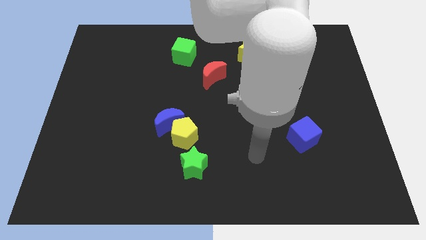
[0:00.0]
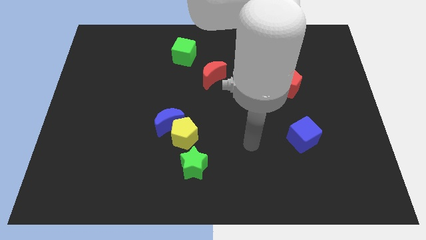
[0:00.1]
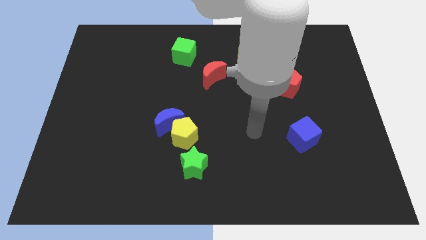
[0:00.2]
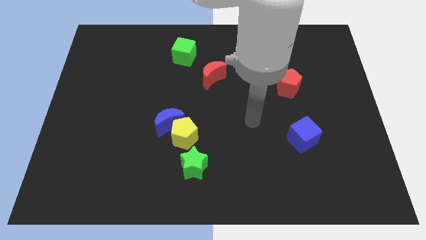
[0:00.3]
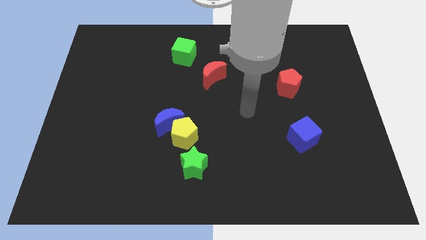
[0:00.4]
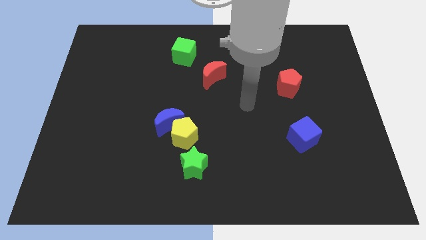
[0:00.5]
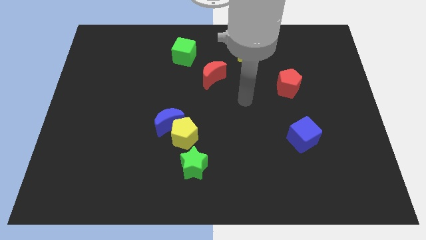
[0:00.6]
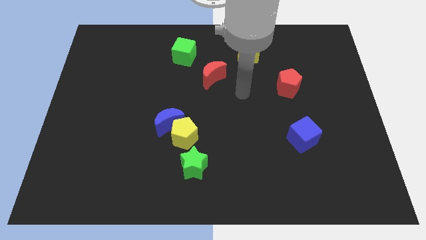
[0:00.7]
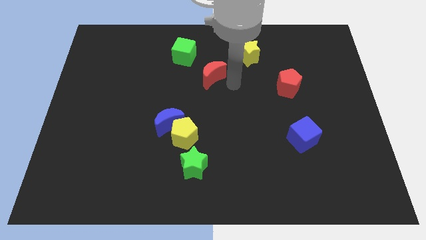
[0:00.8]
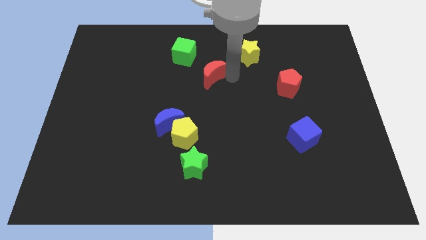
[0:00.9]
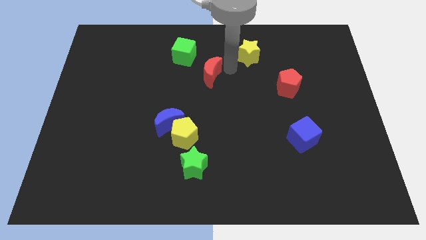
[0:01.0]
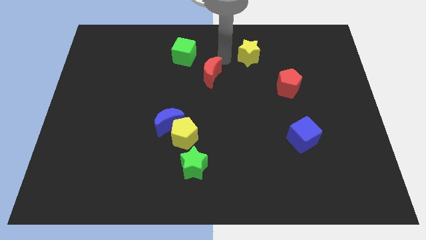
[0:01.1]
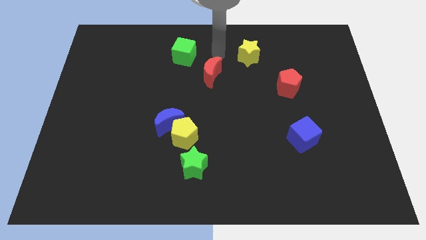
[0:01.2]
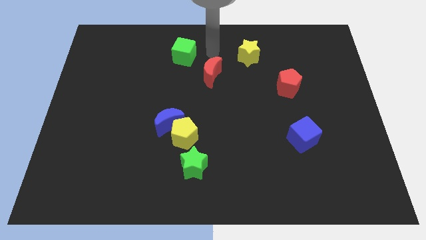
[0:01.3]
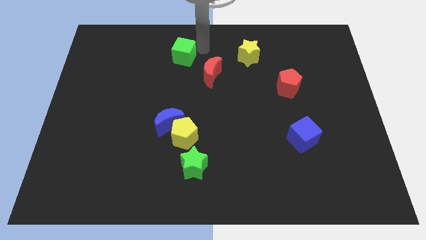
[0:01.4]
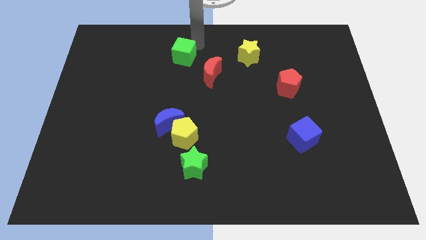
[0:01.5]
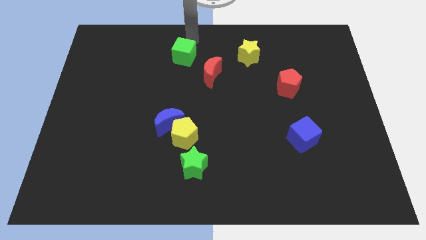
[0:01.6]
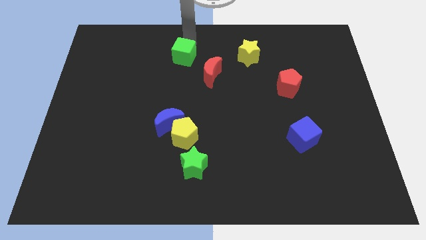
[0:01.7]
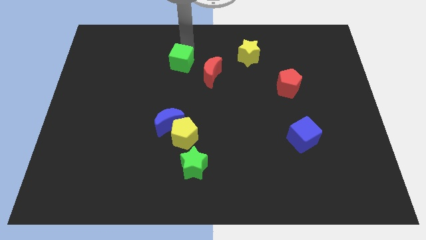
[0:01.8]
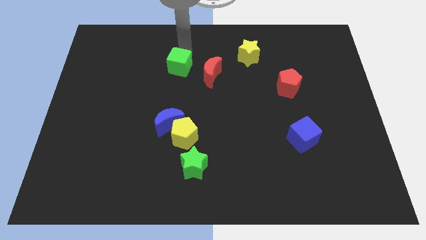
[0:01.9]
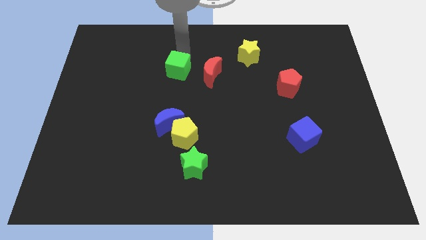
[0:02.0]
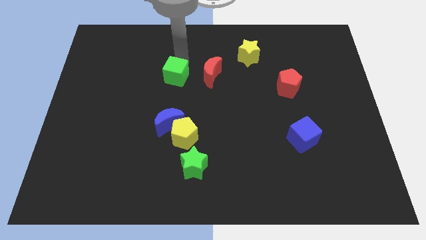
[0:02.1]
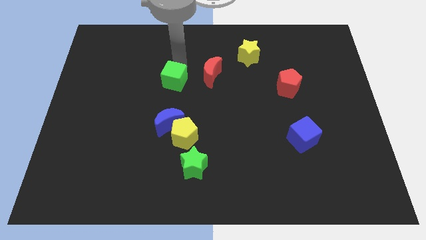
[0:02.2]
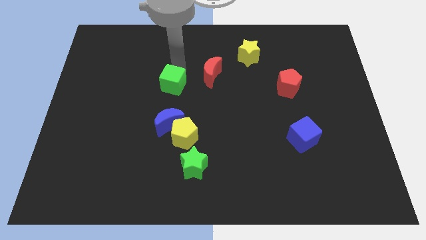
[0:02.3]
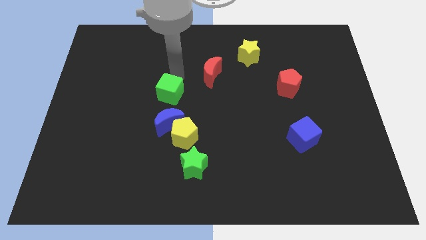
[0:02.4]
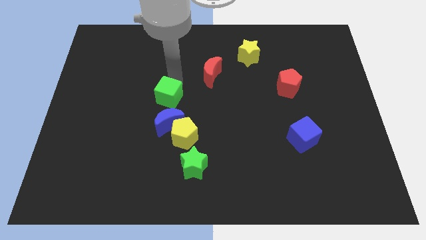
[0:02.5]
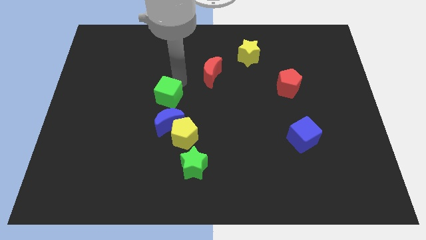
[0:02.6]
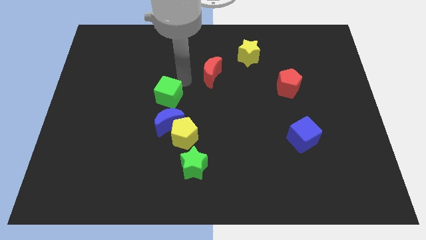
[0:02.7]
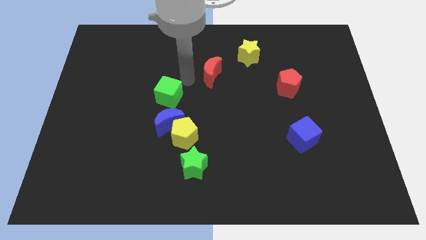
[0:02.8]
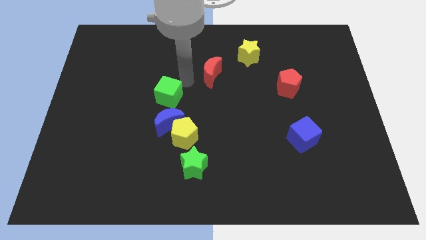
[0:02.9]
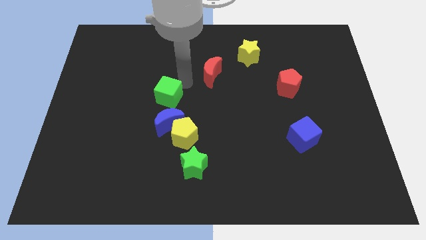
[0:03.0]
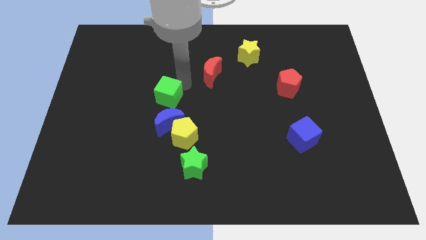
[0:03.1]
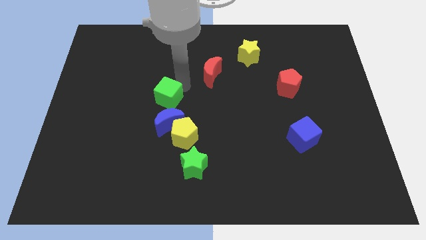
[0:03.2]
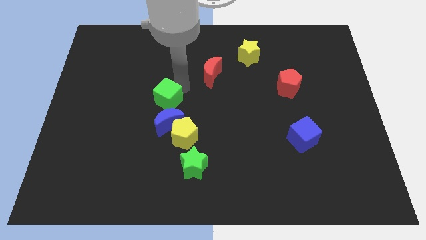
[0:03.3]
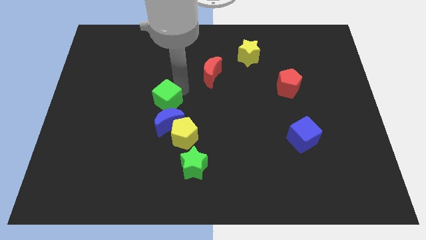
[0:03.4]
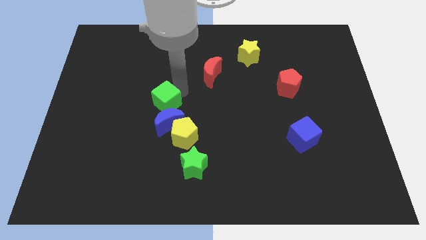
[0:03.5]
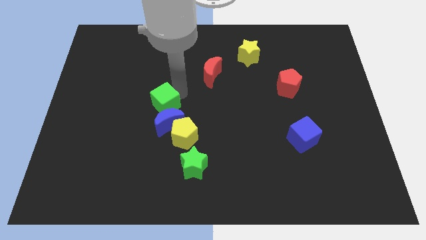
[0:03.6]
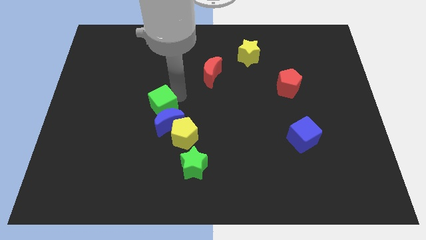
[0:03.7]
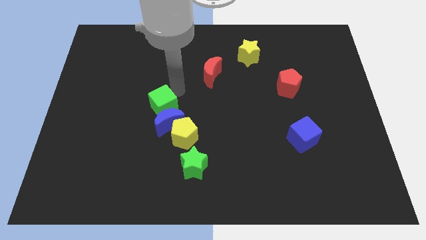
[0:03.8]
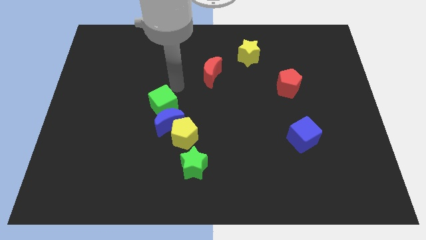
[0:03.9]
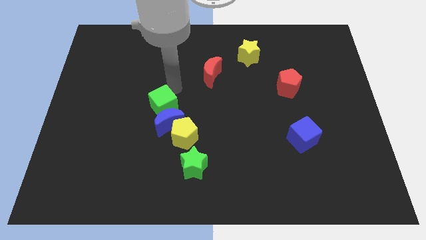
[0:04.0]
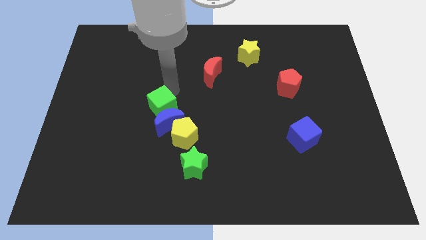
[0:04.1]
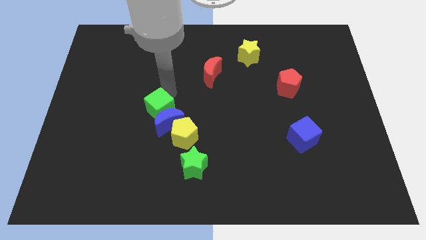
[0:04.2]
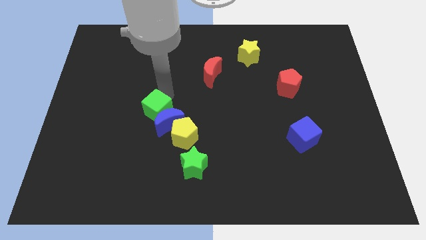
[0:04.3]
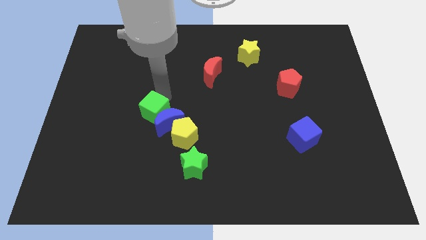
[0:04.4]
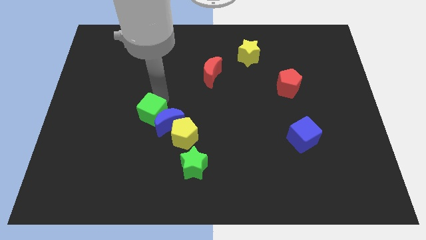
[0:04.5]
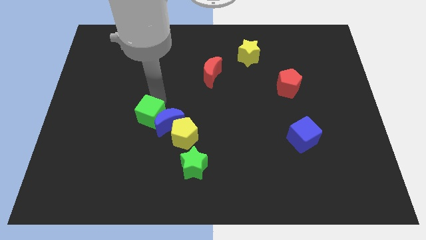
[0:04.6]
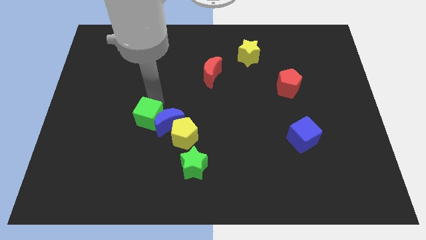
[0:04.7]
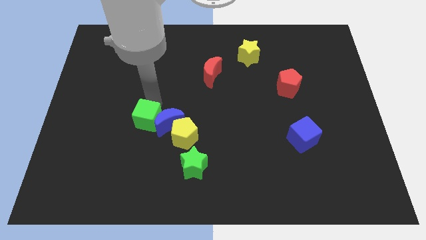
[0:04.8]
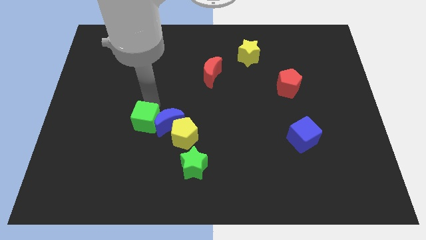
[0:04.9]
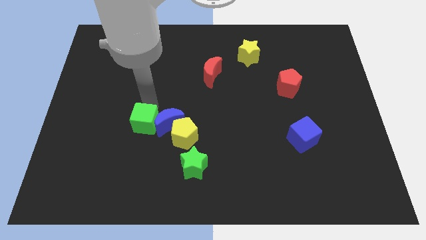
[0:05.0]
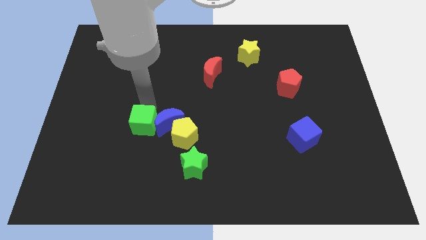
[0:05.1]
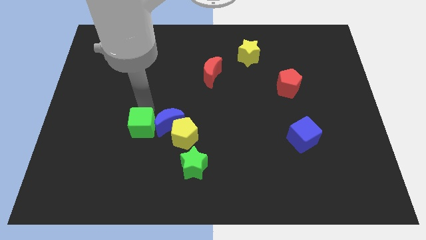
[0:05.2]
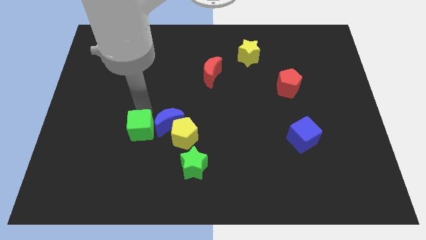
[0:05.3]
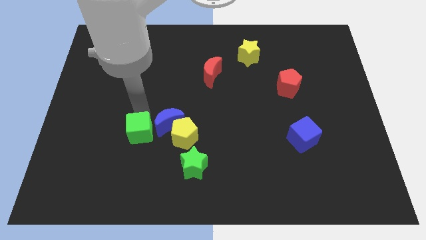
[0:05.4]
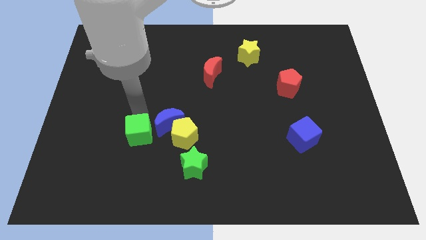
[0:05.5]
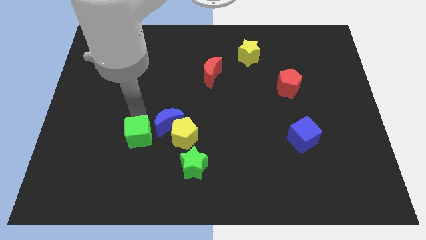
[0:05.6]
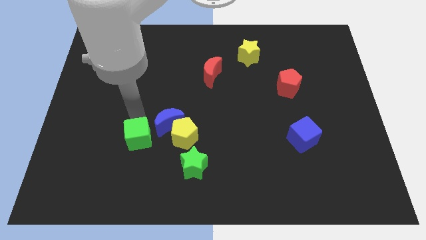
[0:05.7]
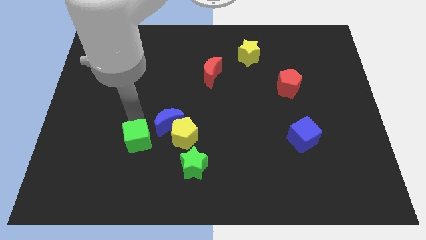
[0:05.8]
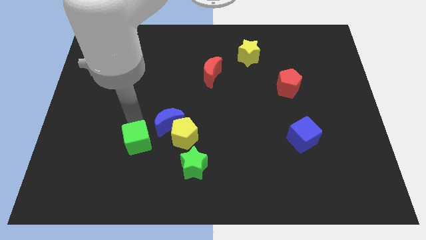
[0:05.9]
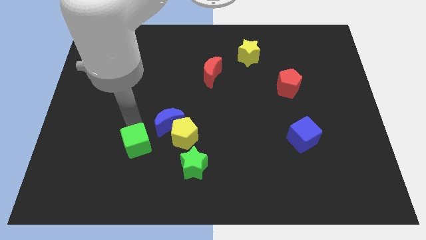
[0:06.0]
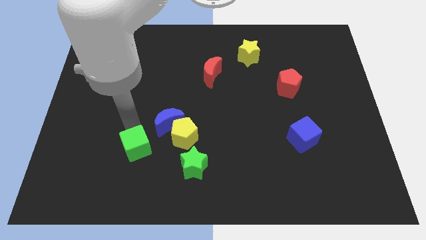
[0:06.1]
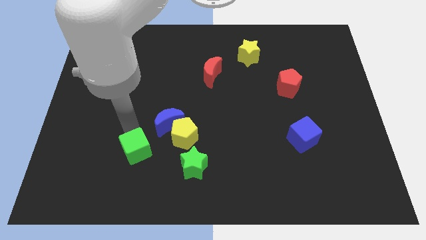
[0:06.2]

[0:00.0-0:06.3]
slide the green cube to the bottom left side of the yellow pentagon
